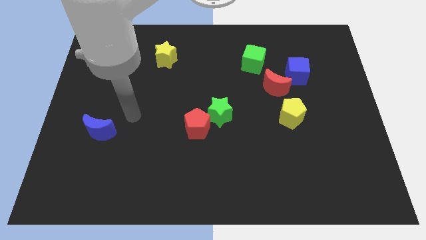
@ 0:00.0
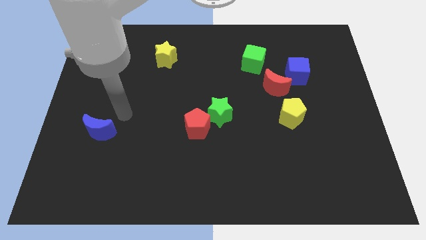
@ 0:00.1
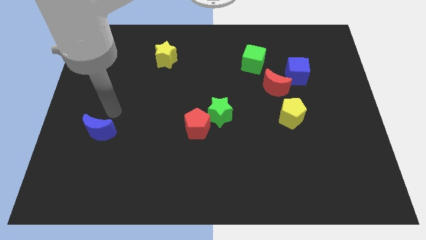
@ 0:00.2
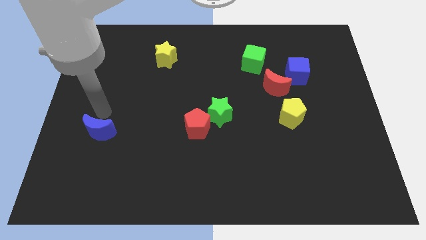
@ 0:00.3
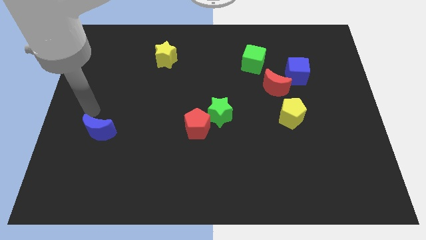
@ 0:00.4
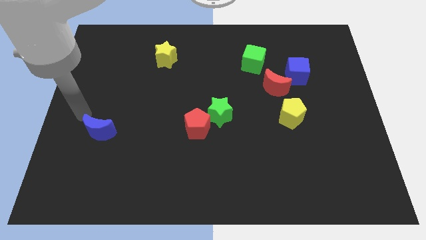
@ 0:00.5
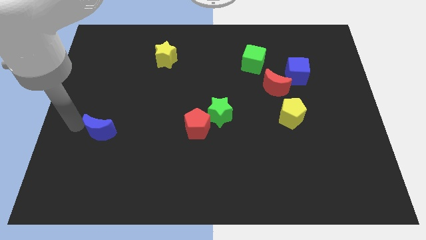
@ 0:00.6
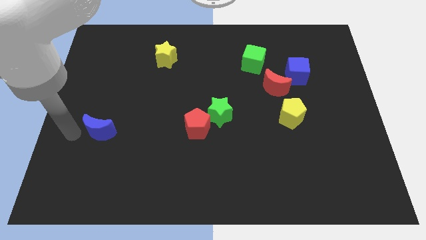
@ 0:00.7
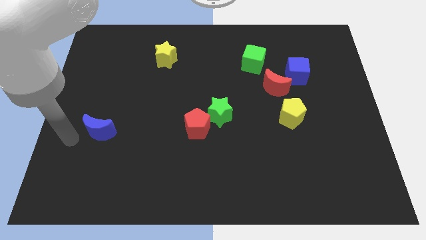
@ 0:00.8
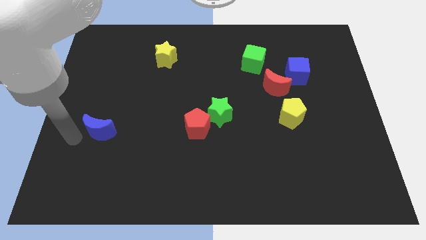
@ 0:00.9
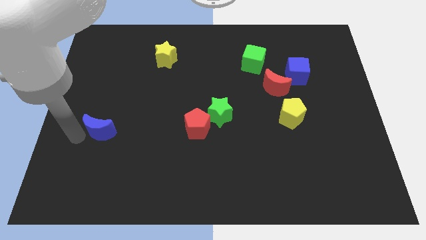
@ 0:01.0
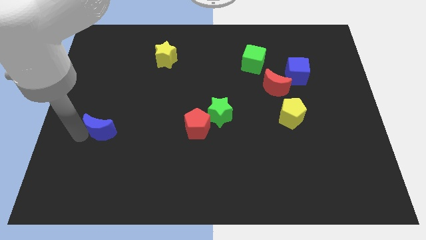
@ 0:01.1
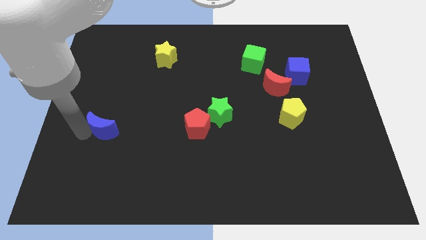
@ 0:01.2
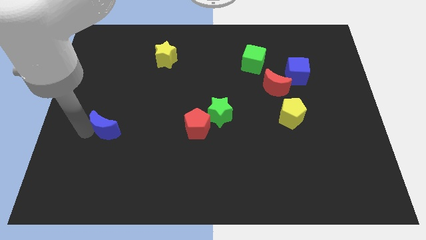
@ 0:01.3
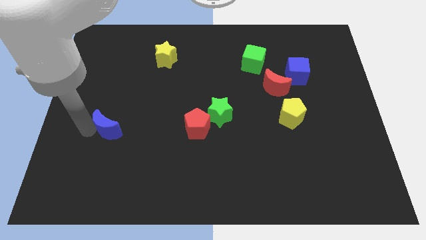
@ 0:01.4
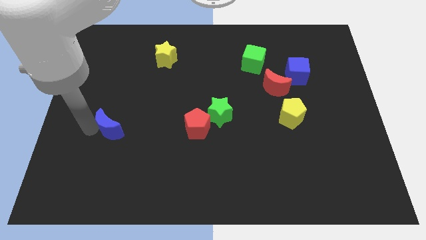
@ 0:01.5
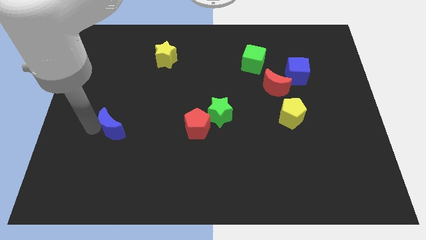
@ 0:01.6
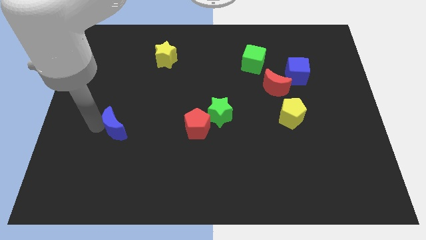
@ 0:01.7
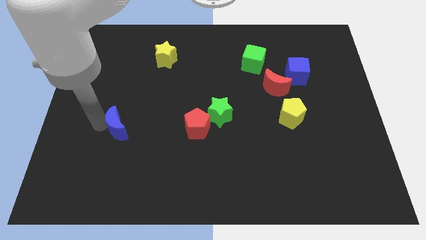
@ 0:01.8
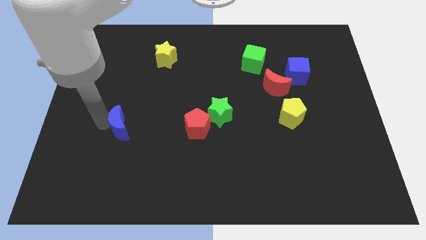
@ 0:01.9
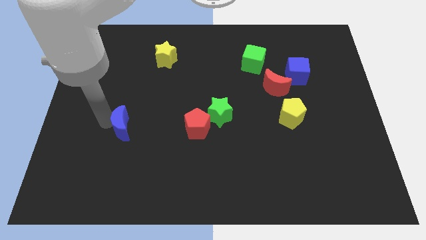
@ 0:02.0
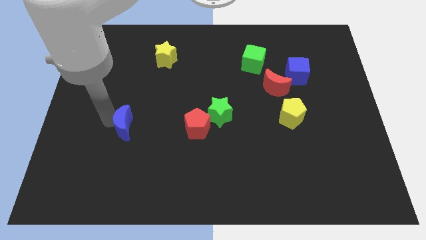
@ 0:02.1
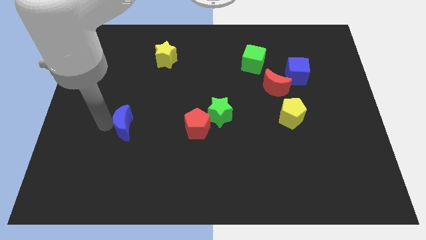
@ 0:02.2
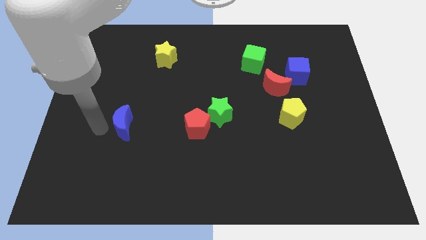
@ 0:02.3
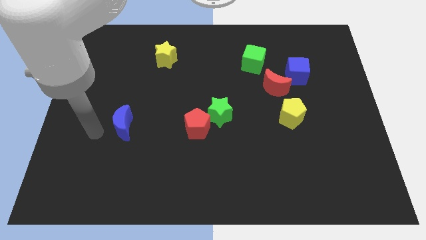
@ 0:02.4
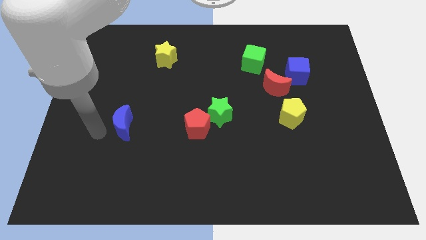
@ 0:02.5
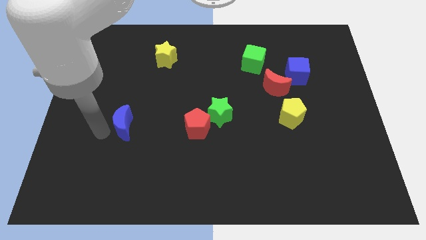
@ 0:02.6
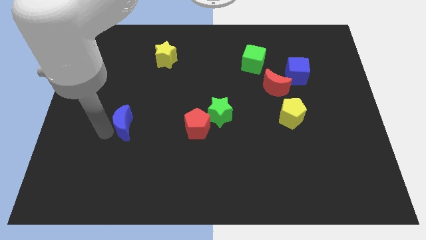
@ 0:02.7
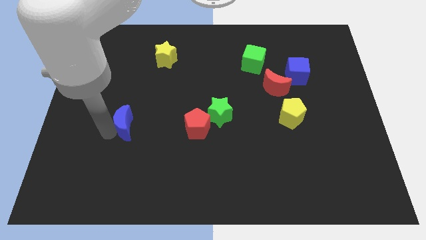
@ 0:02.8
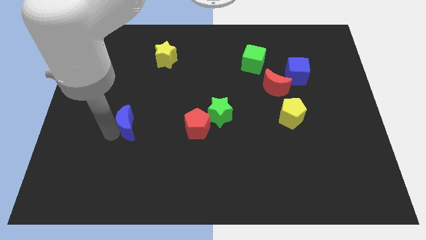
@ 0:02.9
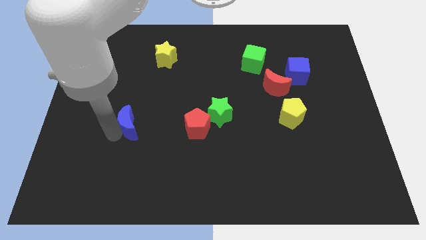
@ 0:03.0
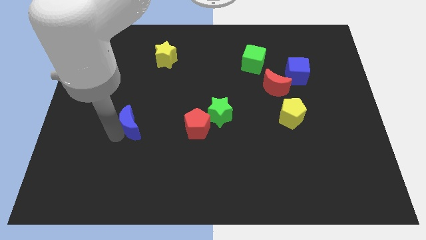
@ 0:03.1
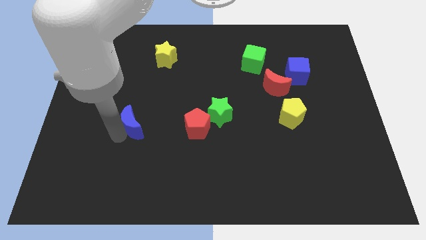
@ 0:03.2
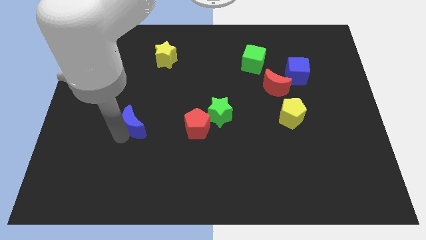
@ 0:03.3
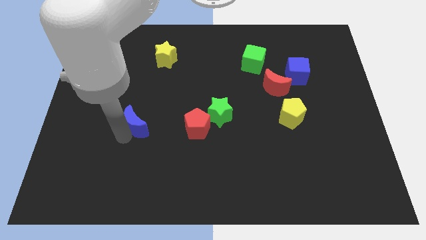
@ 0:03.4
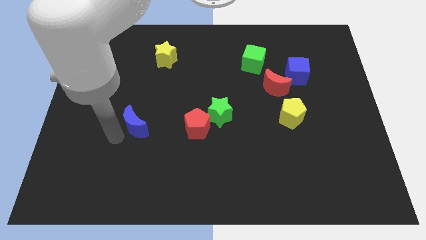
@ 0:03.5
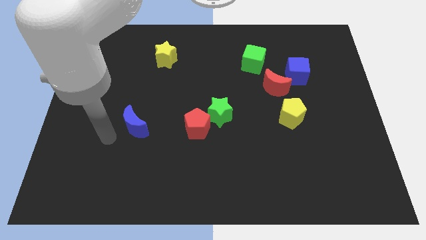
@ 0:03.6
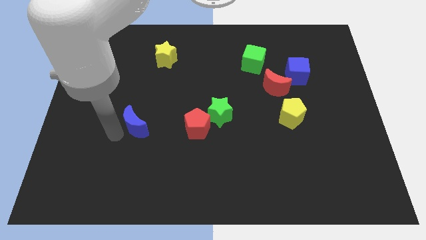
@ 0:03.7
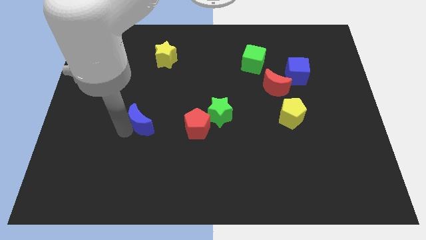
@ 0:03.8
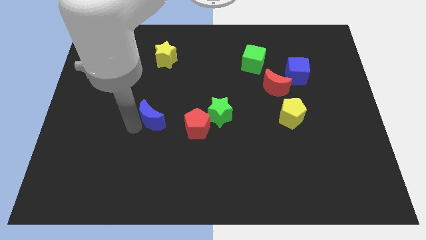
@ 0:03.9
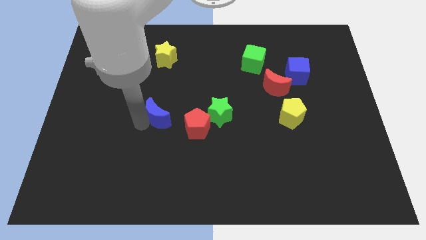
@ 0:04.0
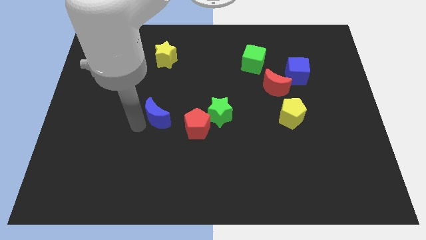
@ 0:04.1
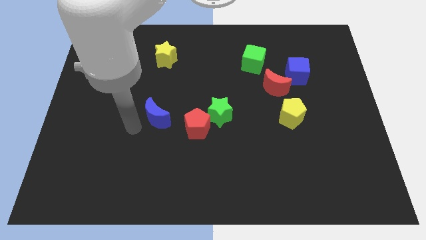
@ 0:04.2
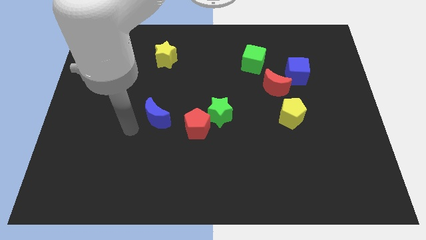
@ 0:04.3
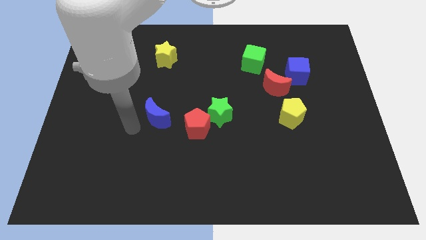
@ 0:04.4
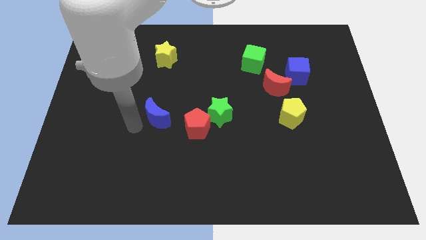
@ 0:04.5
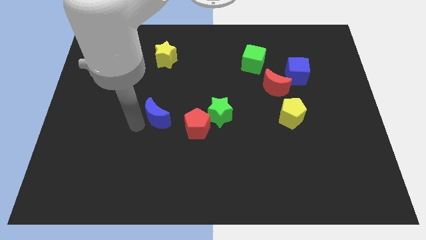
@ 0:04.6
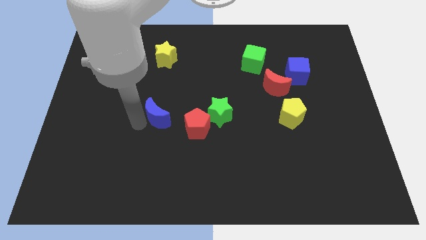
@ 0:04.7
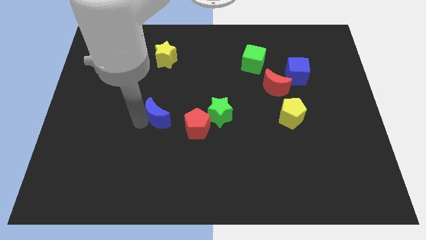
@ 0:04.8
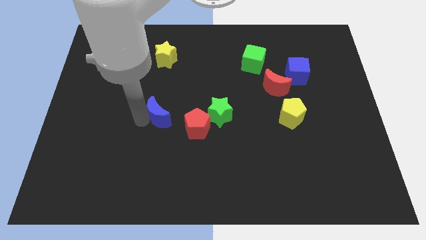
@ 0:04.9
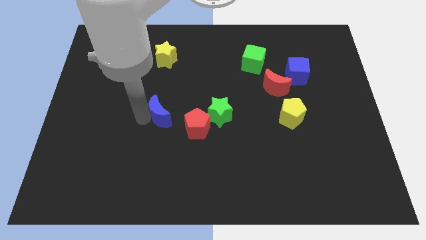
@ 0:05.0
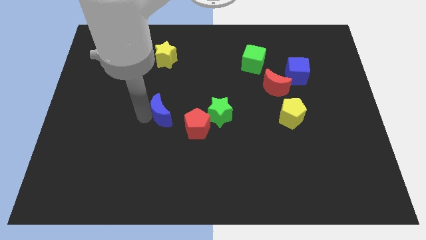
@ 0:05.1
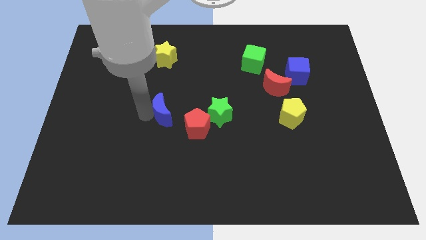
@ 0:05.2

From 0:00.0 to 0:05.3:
put the blue moon to the middle

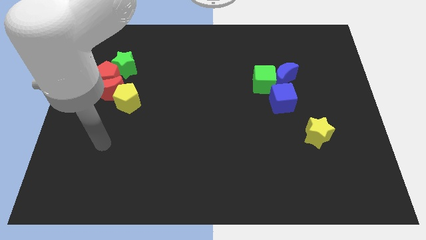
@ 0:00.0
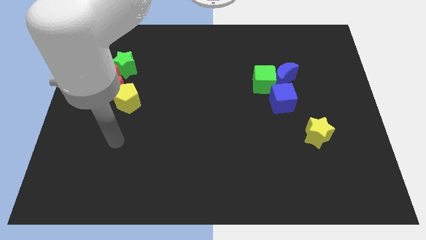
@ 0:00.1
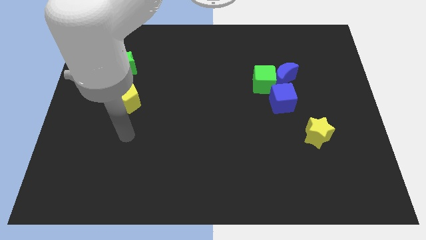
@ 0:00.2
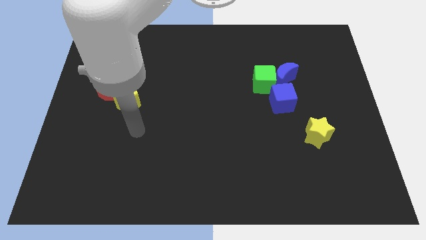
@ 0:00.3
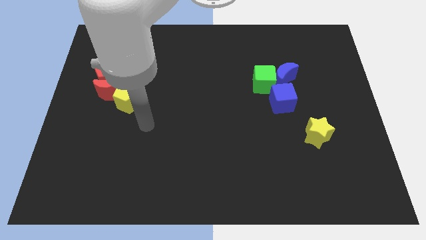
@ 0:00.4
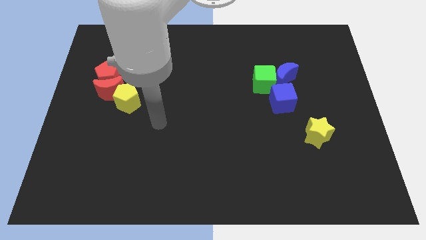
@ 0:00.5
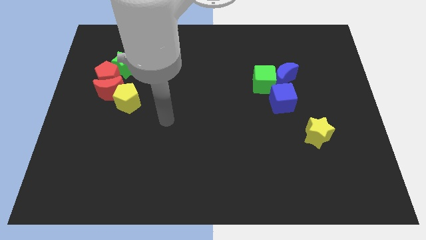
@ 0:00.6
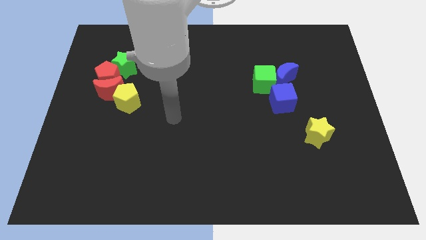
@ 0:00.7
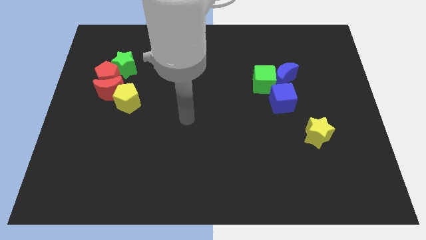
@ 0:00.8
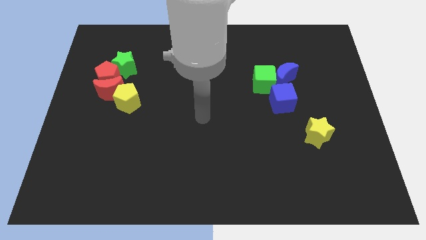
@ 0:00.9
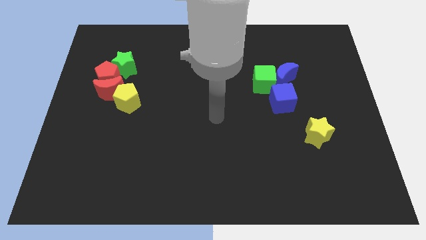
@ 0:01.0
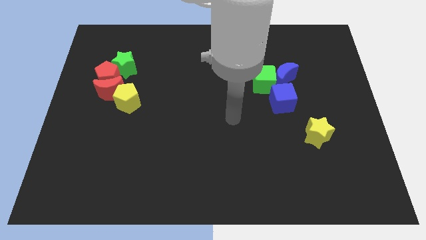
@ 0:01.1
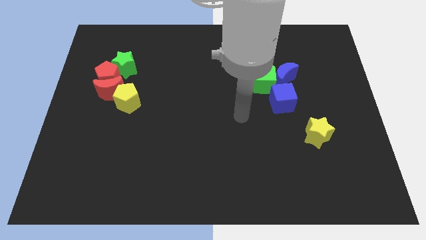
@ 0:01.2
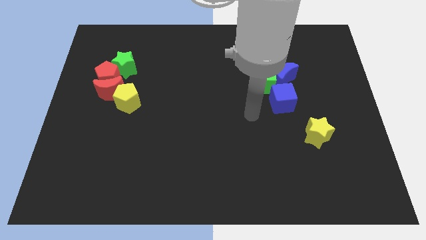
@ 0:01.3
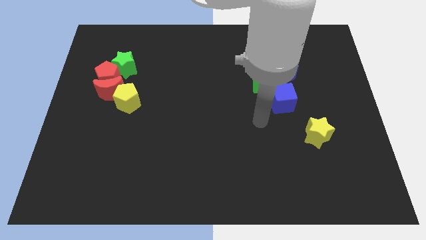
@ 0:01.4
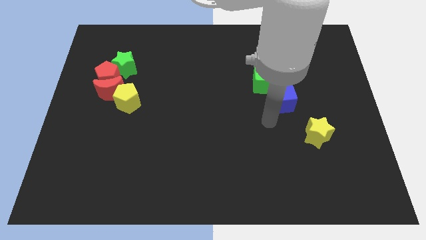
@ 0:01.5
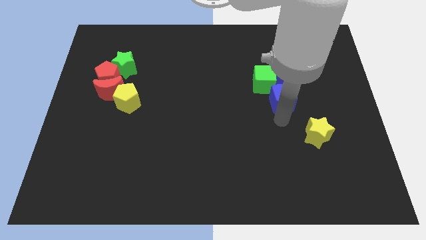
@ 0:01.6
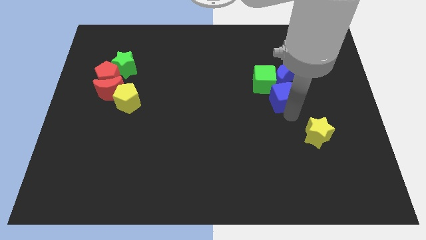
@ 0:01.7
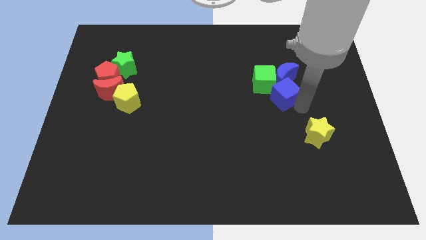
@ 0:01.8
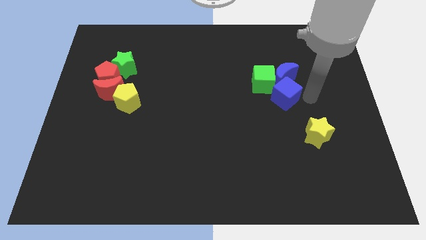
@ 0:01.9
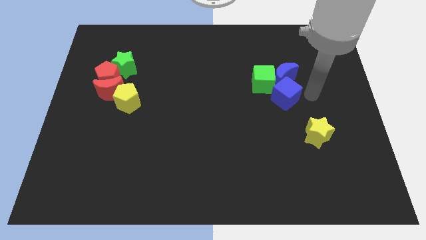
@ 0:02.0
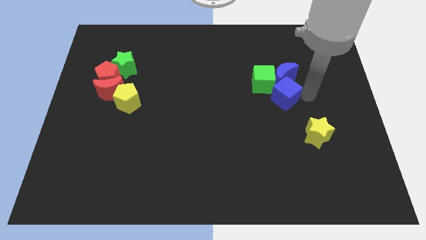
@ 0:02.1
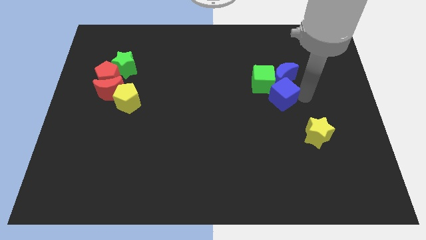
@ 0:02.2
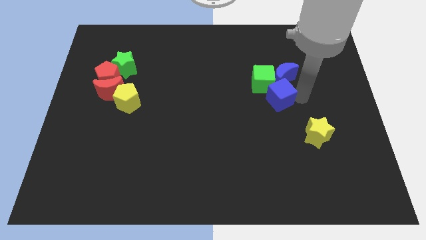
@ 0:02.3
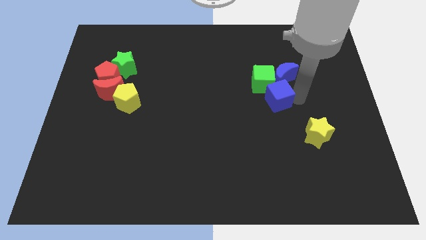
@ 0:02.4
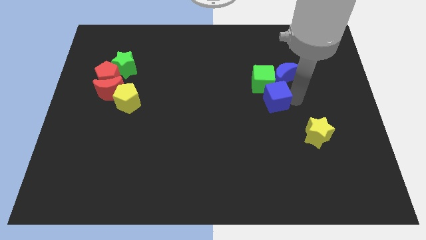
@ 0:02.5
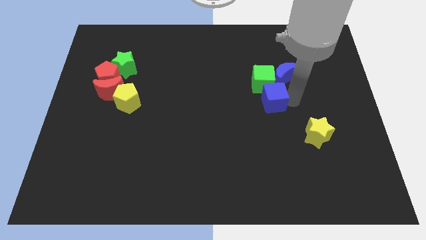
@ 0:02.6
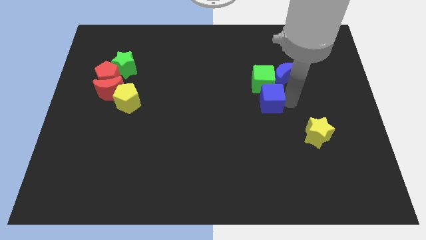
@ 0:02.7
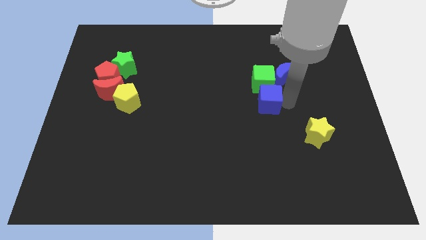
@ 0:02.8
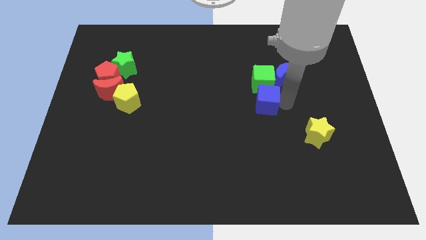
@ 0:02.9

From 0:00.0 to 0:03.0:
slide the blue cube to the center
